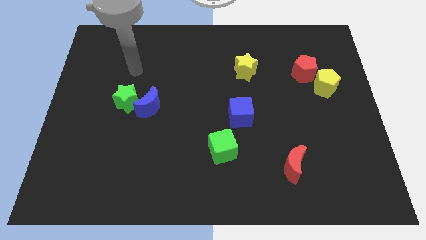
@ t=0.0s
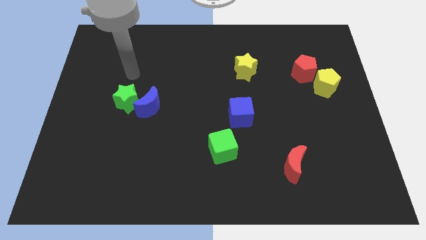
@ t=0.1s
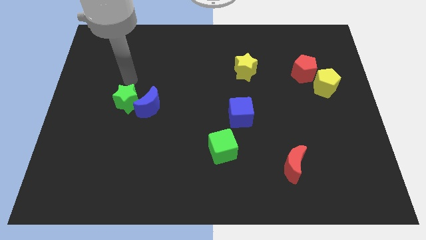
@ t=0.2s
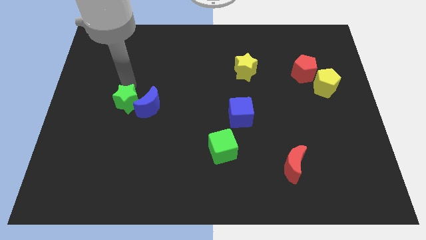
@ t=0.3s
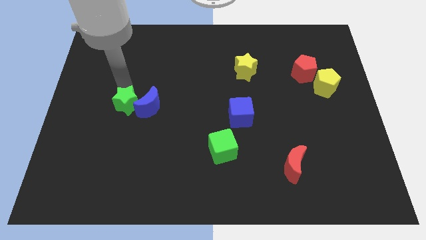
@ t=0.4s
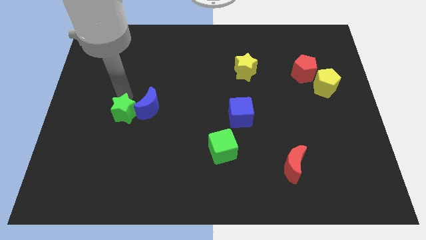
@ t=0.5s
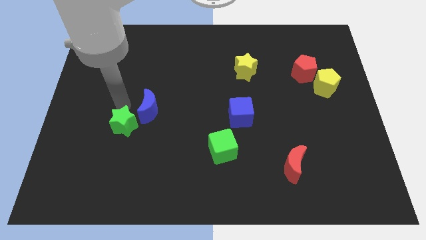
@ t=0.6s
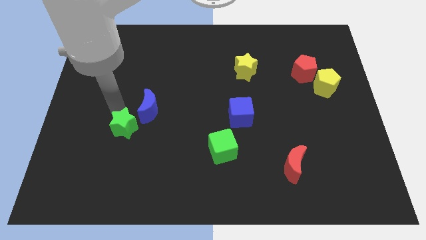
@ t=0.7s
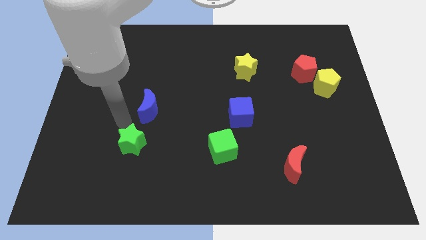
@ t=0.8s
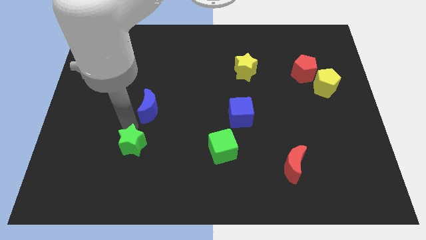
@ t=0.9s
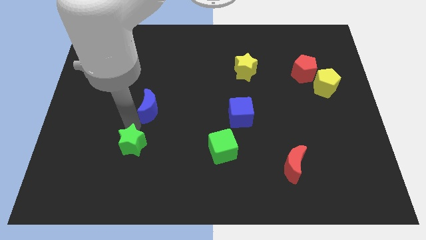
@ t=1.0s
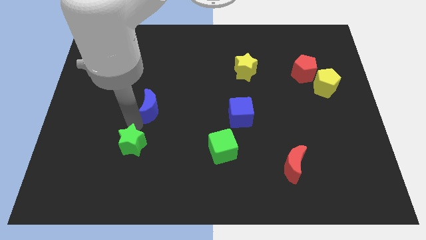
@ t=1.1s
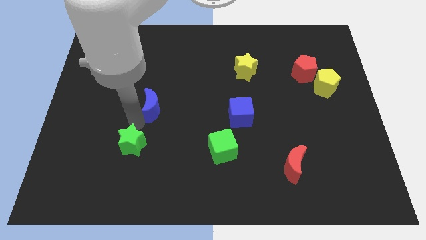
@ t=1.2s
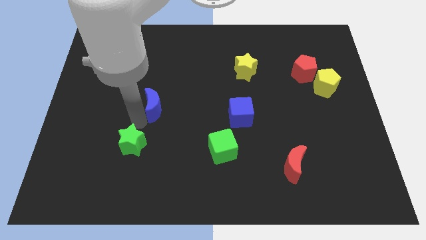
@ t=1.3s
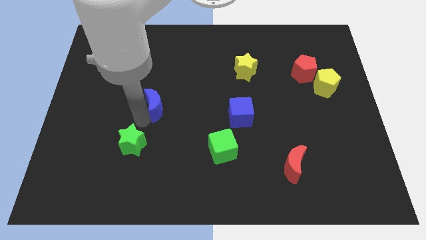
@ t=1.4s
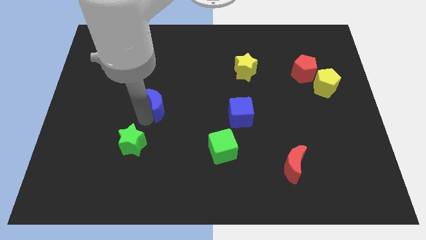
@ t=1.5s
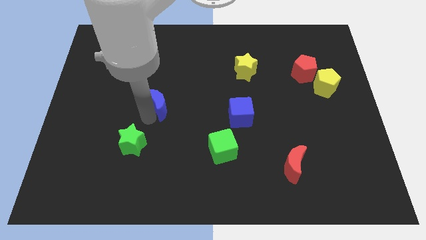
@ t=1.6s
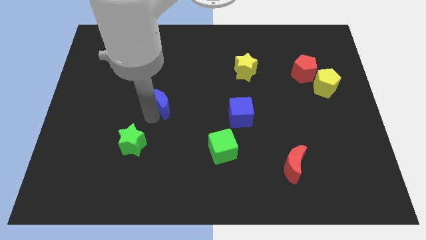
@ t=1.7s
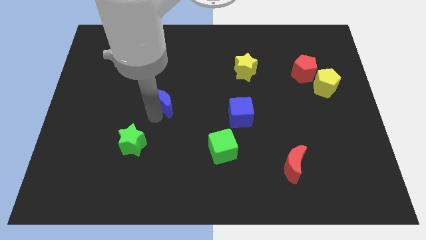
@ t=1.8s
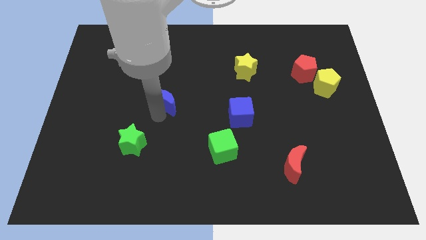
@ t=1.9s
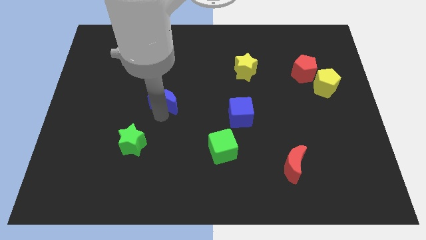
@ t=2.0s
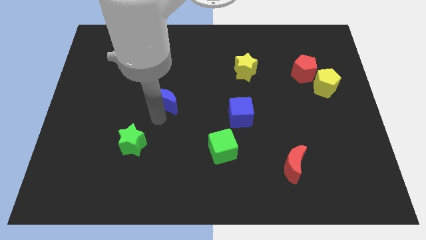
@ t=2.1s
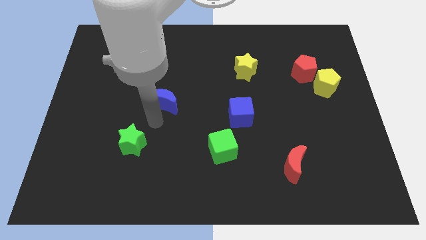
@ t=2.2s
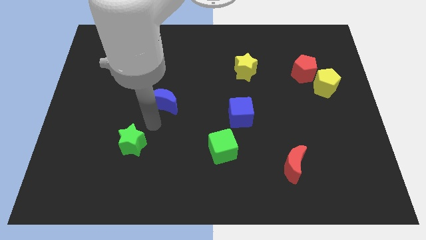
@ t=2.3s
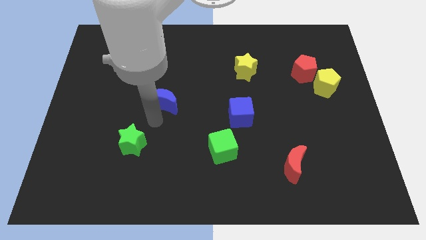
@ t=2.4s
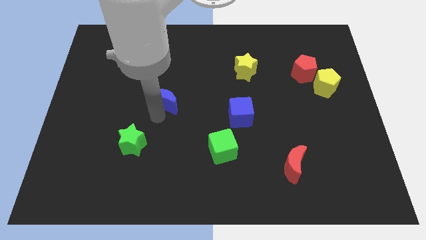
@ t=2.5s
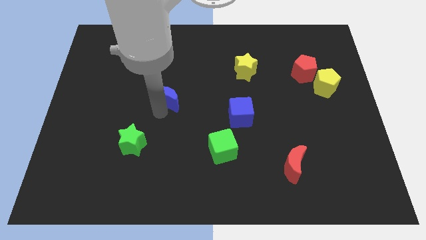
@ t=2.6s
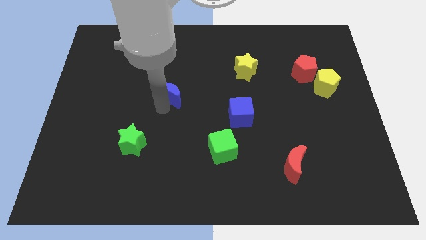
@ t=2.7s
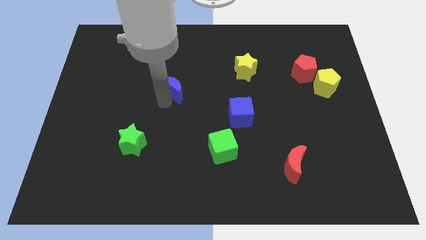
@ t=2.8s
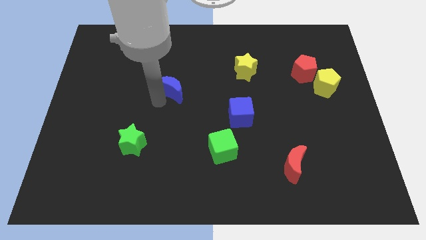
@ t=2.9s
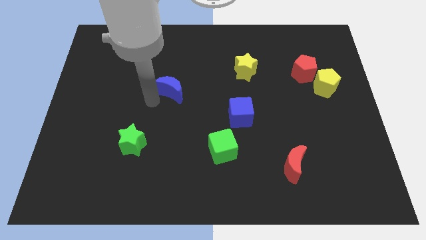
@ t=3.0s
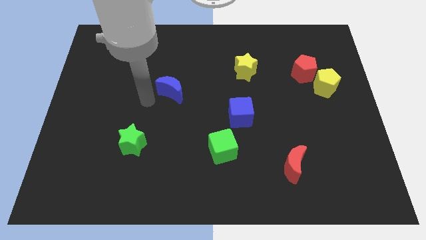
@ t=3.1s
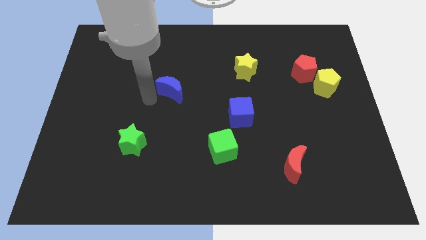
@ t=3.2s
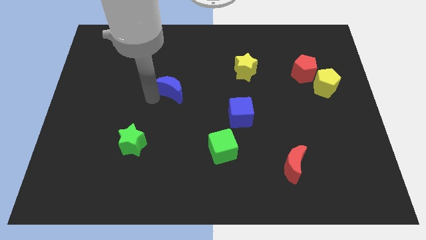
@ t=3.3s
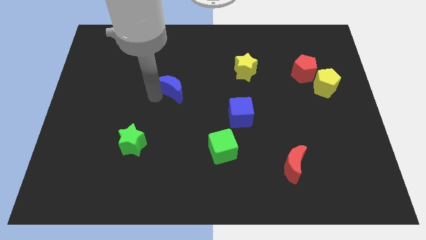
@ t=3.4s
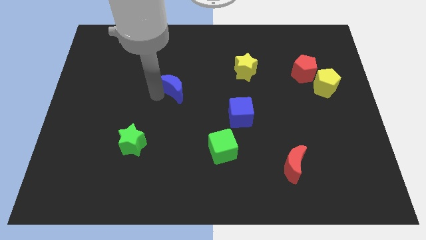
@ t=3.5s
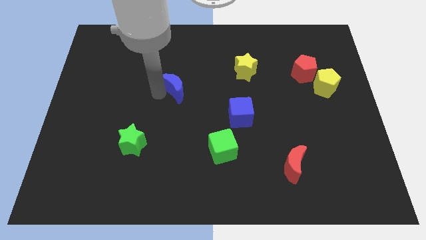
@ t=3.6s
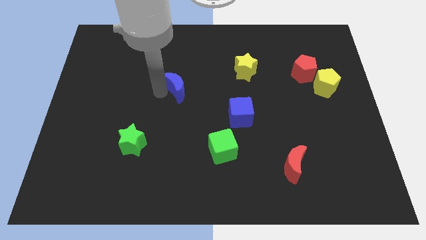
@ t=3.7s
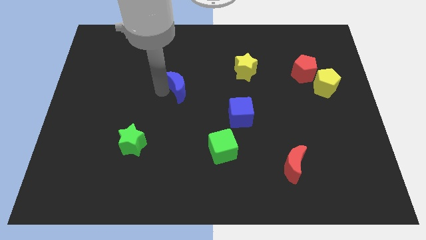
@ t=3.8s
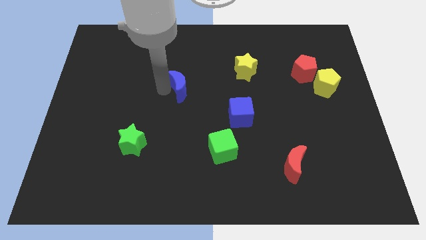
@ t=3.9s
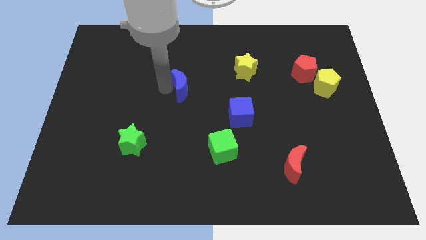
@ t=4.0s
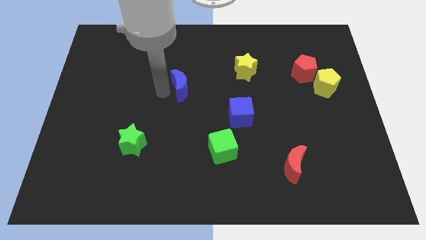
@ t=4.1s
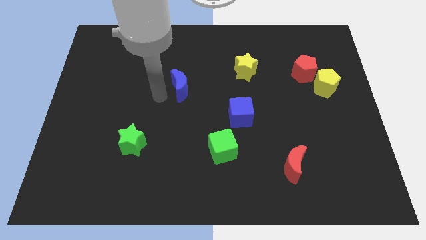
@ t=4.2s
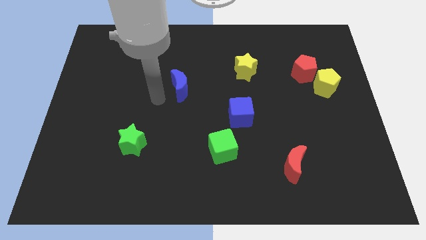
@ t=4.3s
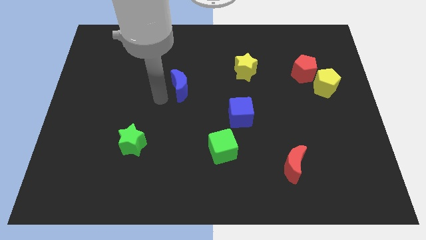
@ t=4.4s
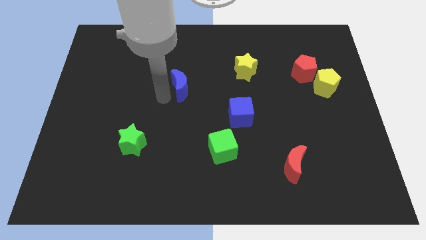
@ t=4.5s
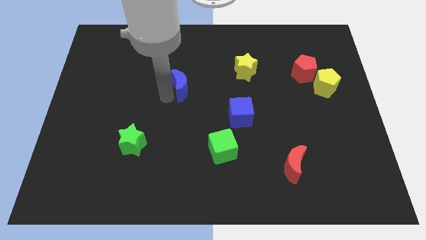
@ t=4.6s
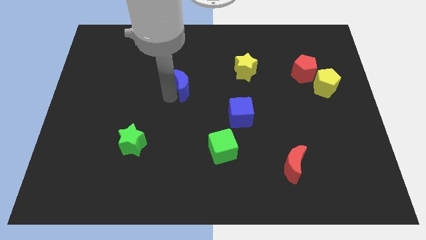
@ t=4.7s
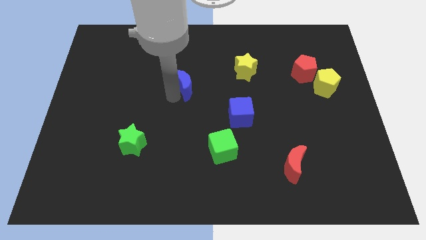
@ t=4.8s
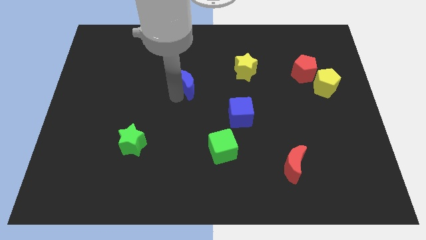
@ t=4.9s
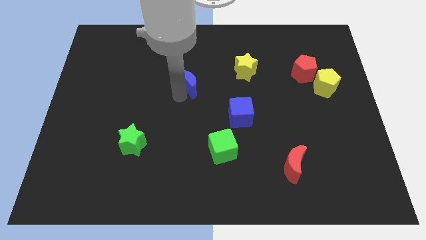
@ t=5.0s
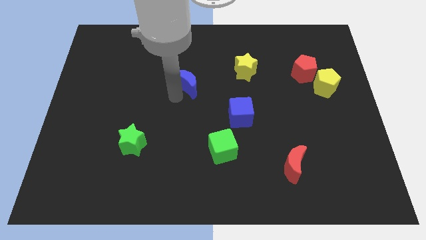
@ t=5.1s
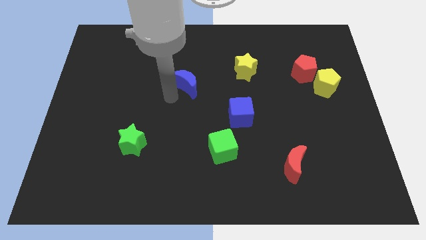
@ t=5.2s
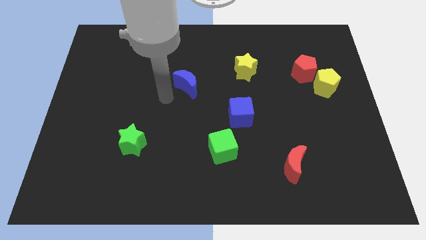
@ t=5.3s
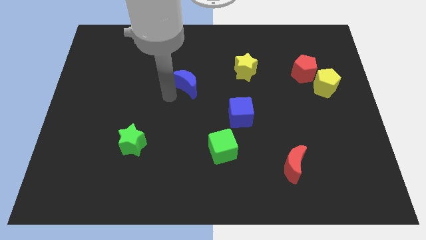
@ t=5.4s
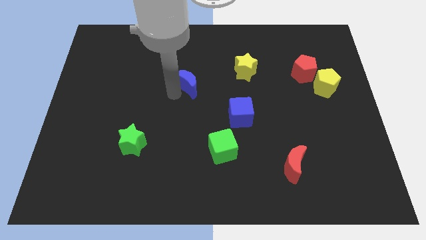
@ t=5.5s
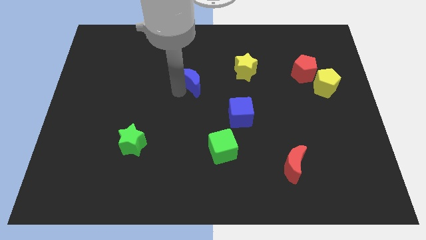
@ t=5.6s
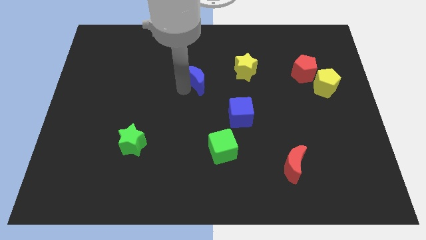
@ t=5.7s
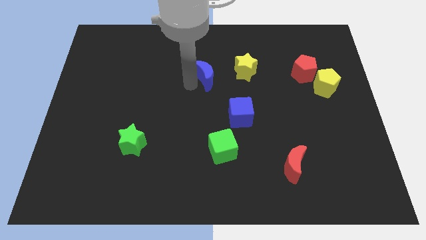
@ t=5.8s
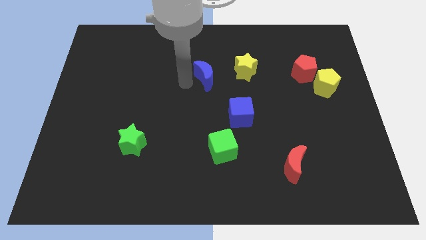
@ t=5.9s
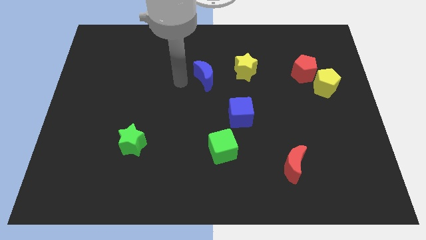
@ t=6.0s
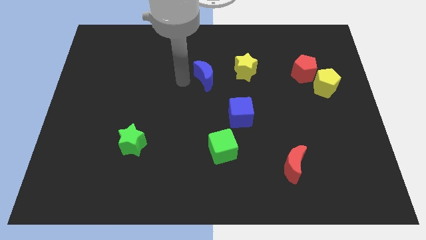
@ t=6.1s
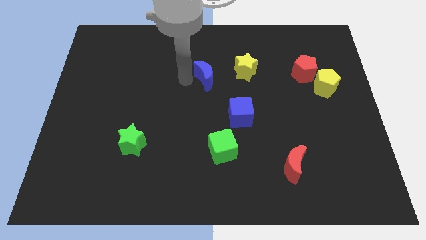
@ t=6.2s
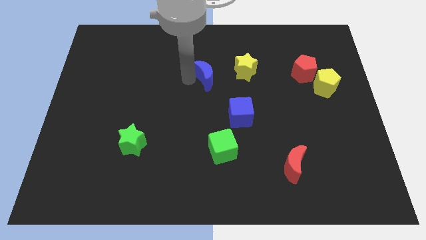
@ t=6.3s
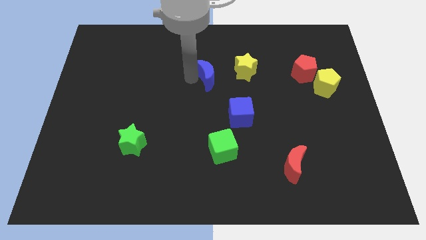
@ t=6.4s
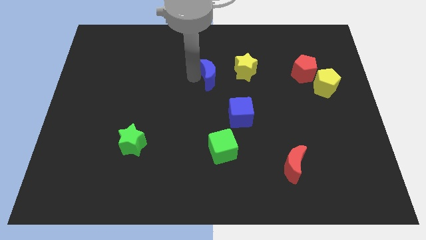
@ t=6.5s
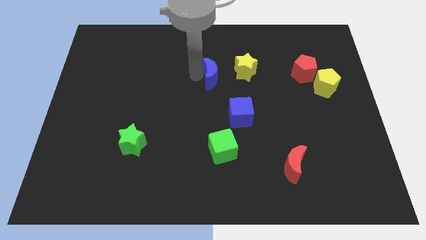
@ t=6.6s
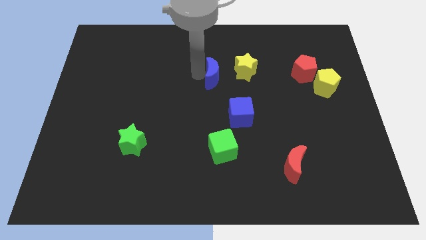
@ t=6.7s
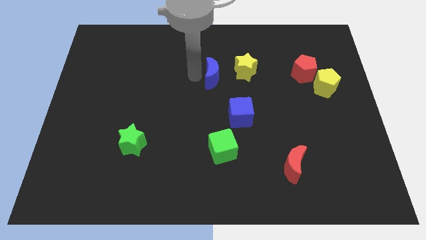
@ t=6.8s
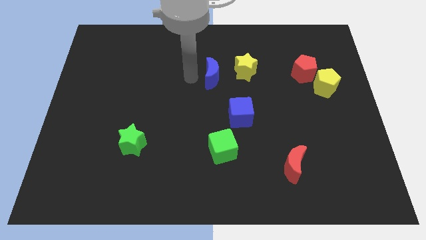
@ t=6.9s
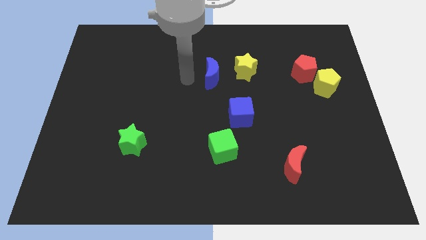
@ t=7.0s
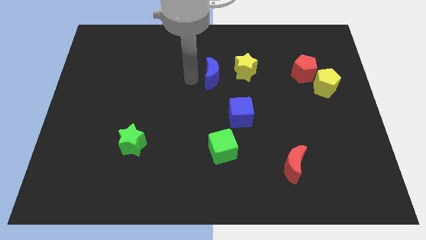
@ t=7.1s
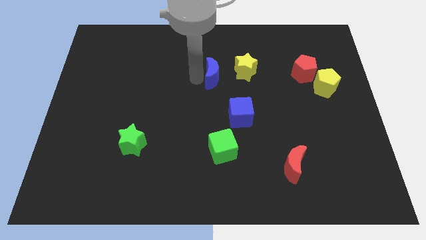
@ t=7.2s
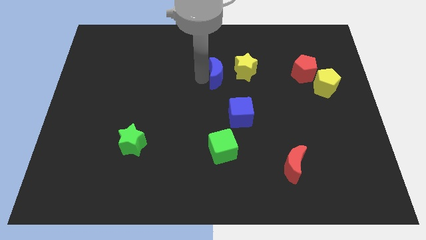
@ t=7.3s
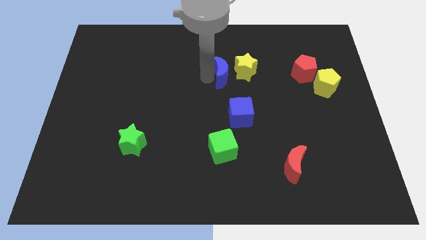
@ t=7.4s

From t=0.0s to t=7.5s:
move the blue moon close to the yellow star
